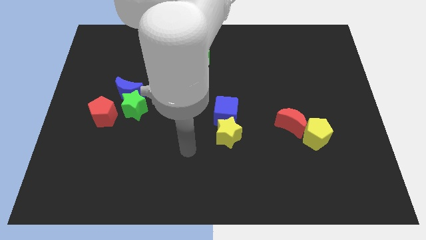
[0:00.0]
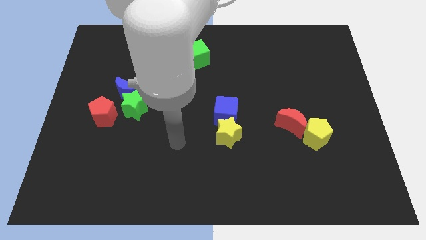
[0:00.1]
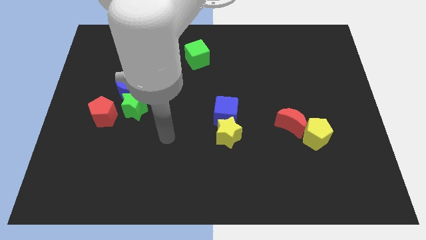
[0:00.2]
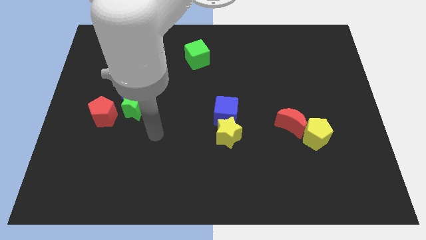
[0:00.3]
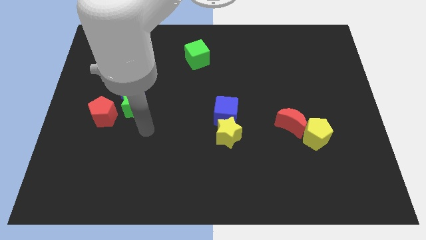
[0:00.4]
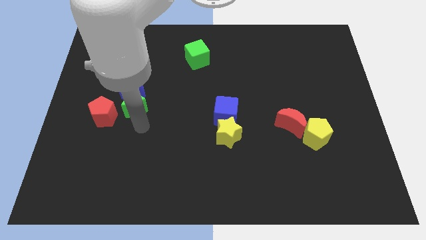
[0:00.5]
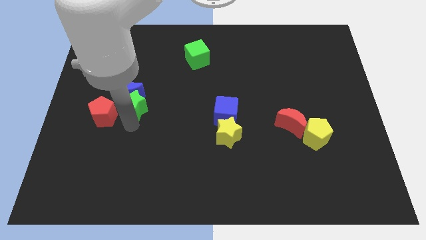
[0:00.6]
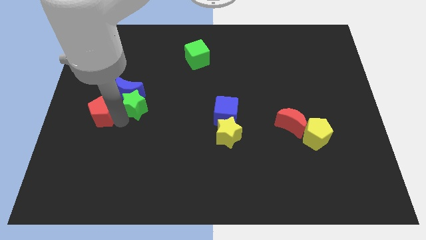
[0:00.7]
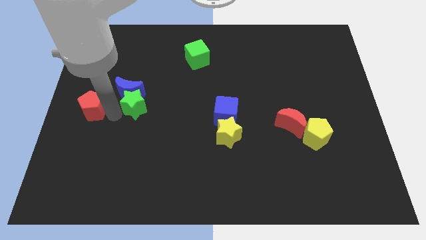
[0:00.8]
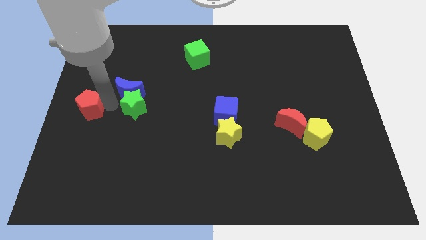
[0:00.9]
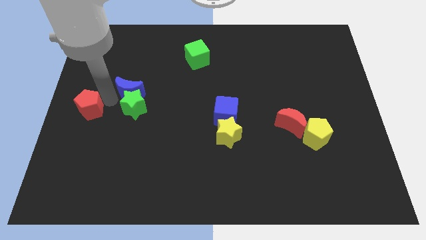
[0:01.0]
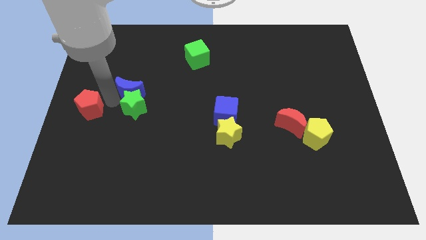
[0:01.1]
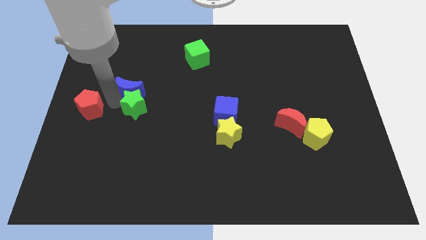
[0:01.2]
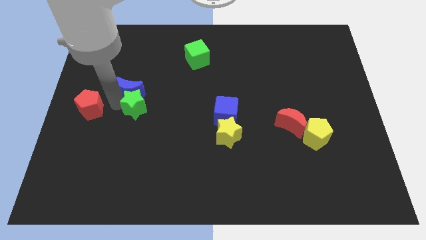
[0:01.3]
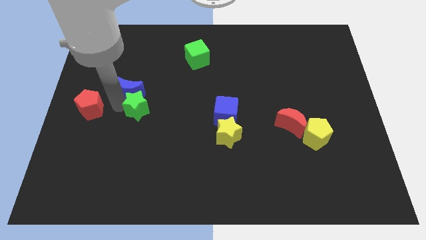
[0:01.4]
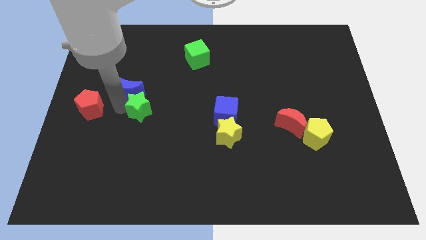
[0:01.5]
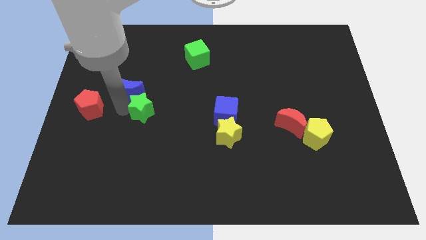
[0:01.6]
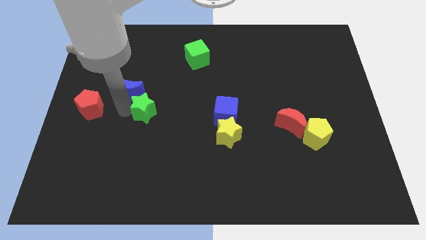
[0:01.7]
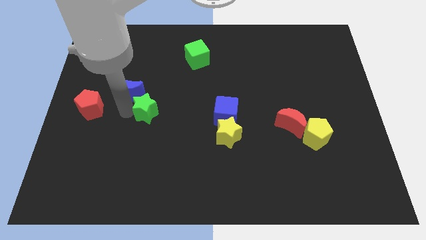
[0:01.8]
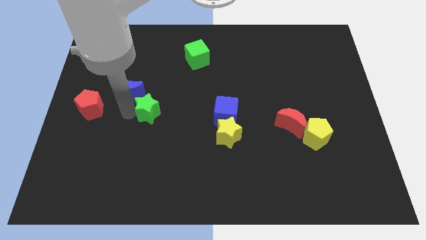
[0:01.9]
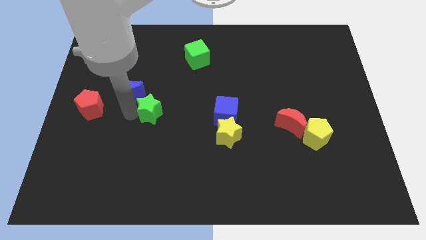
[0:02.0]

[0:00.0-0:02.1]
separate the green star from the blue moon and red pentagon

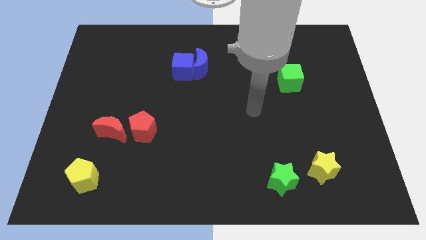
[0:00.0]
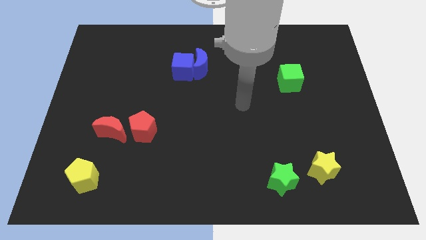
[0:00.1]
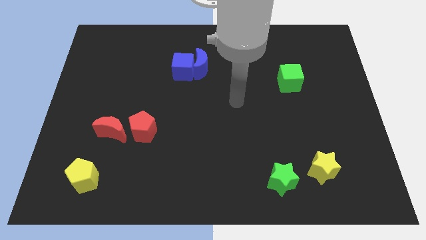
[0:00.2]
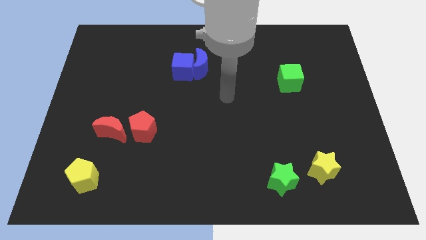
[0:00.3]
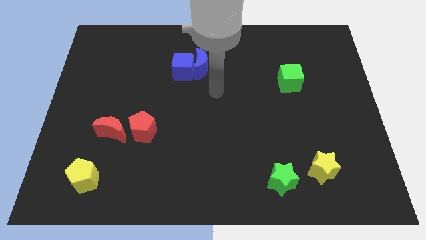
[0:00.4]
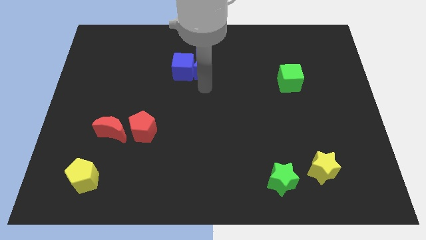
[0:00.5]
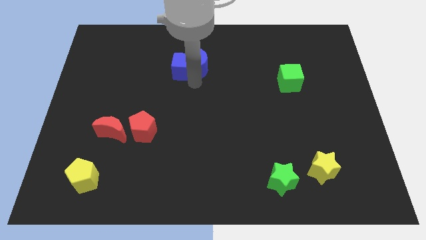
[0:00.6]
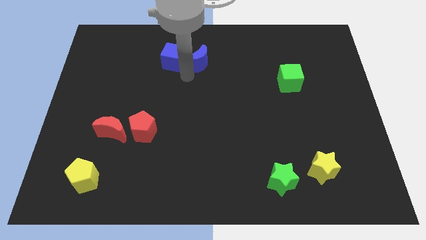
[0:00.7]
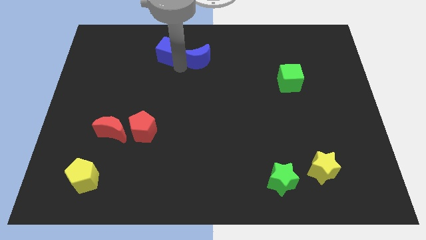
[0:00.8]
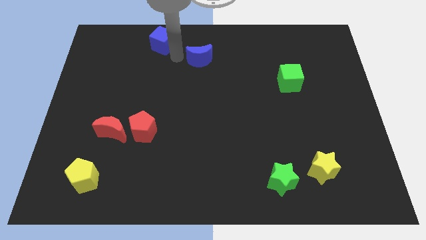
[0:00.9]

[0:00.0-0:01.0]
pull the blue moon apart from the blue cube

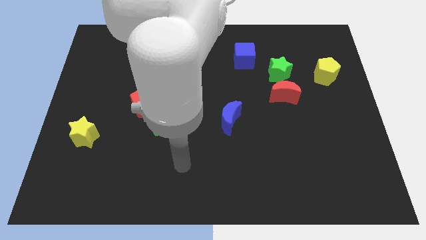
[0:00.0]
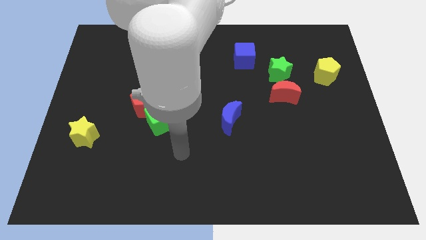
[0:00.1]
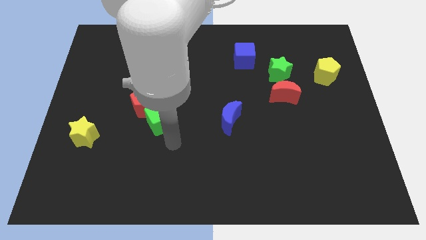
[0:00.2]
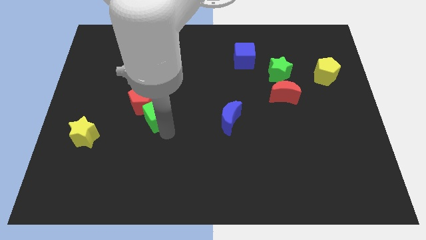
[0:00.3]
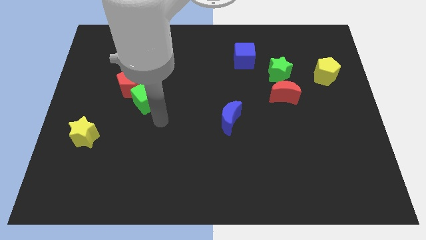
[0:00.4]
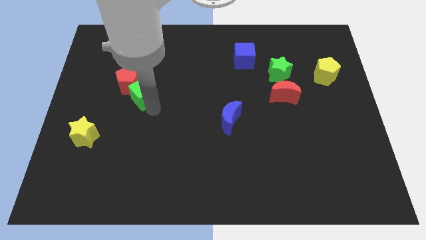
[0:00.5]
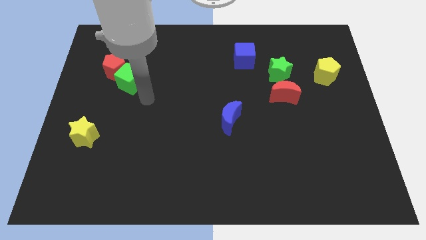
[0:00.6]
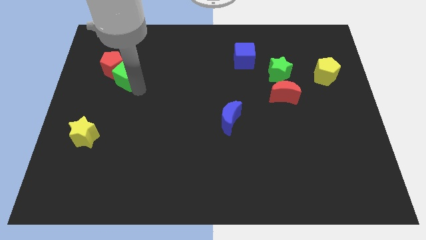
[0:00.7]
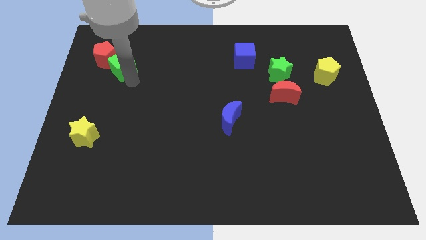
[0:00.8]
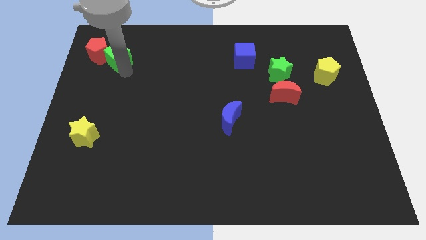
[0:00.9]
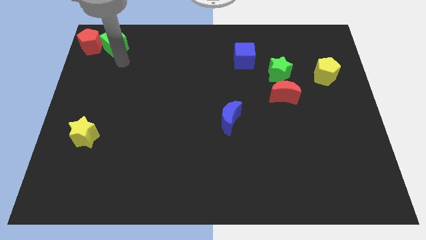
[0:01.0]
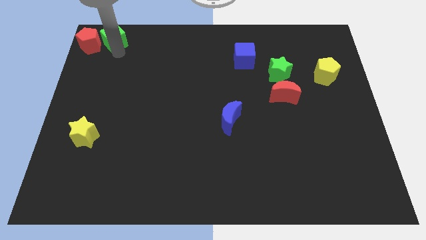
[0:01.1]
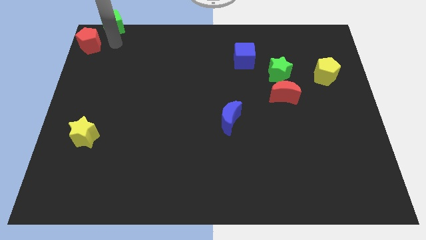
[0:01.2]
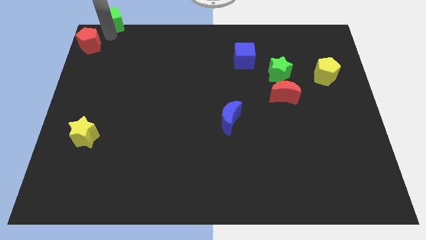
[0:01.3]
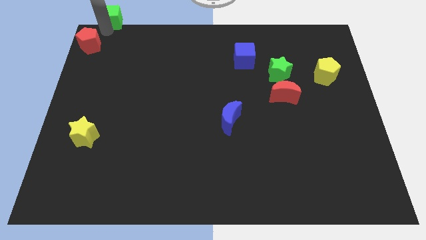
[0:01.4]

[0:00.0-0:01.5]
move the red pentagon away from the green cube

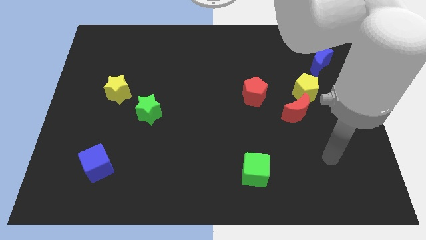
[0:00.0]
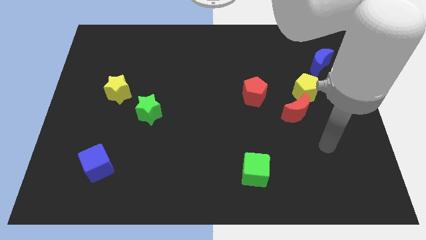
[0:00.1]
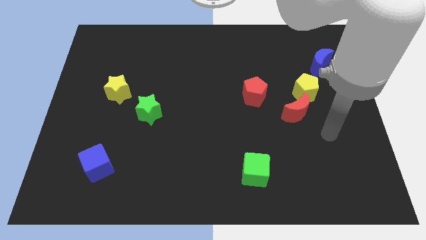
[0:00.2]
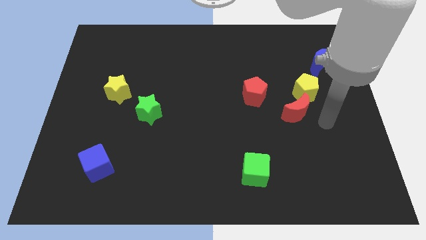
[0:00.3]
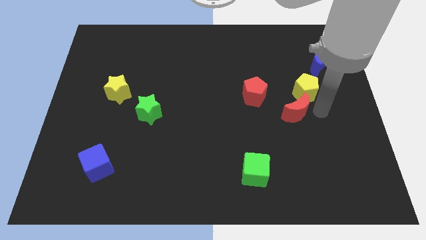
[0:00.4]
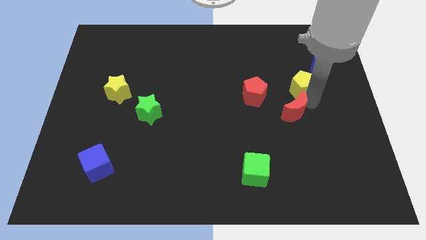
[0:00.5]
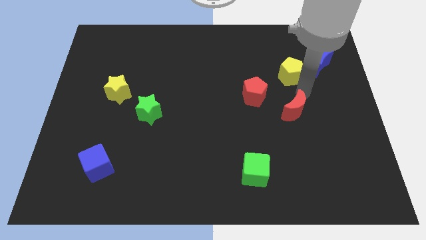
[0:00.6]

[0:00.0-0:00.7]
pull the red moon apart from the yellow pentagon

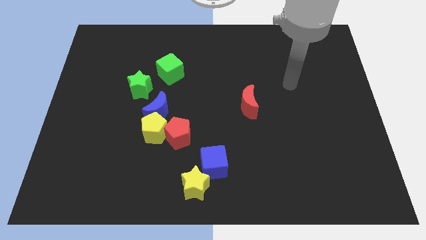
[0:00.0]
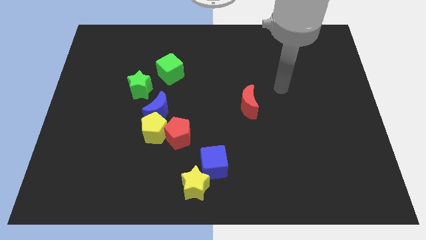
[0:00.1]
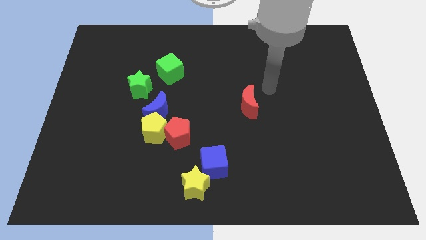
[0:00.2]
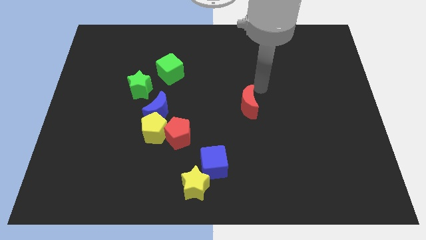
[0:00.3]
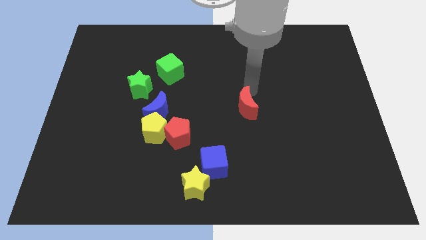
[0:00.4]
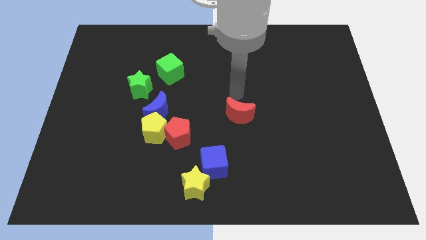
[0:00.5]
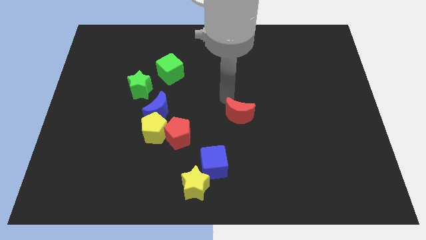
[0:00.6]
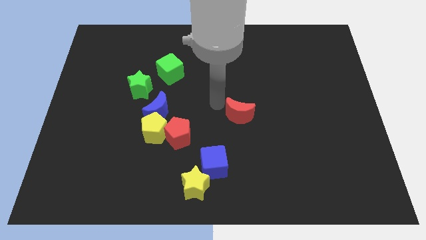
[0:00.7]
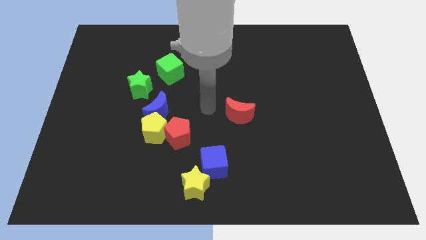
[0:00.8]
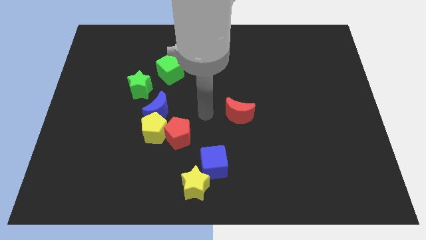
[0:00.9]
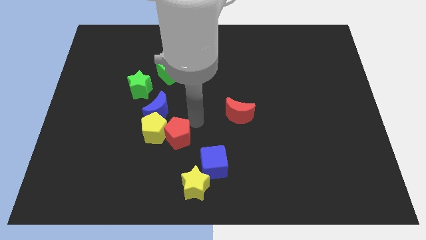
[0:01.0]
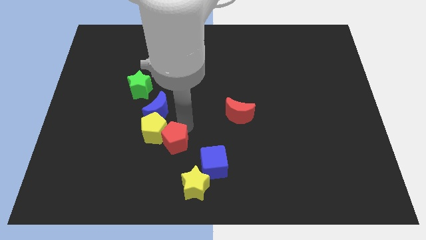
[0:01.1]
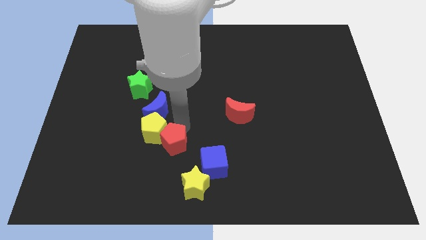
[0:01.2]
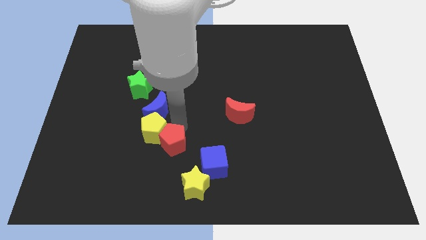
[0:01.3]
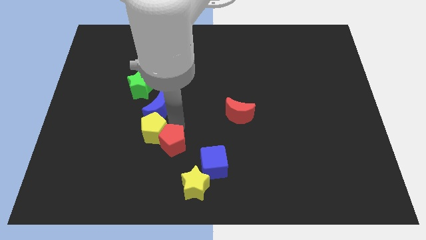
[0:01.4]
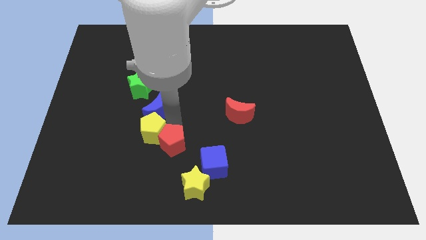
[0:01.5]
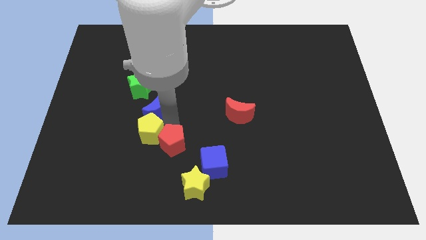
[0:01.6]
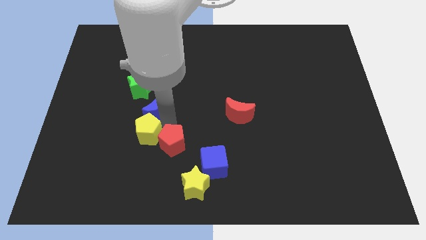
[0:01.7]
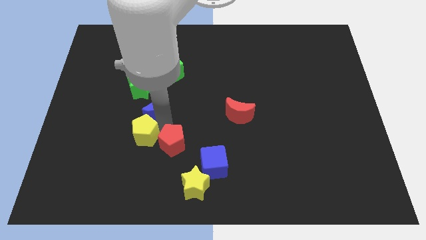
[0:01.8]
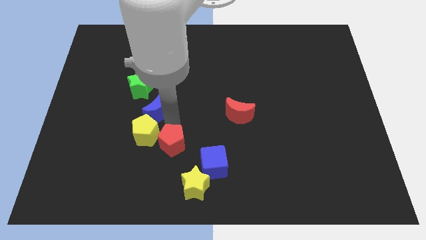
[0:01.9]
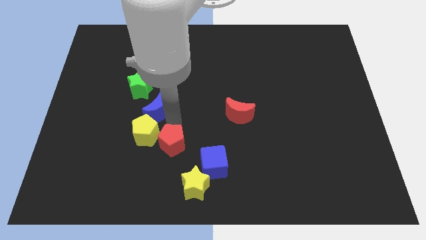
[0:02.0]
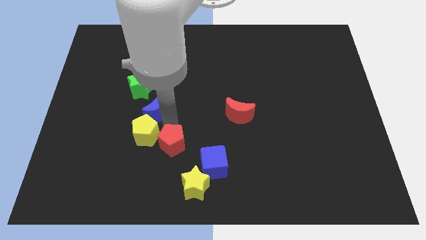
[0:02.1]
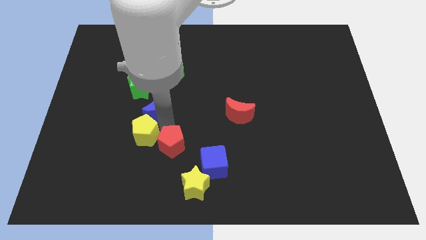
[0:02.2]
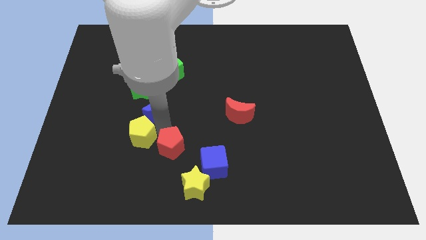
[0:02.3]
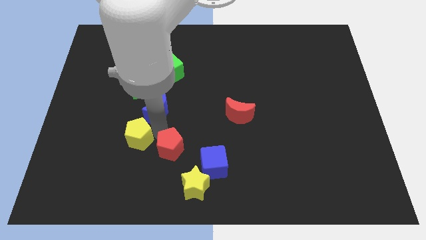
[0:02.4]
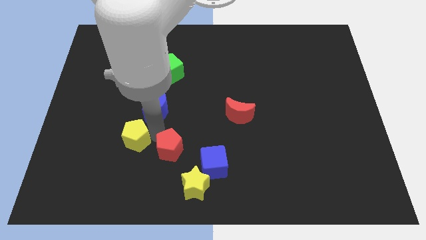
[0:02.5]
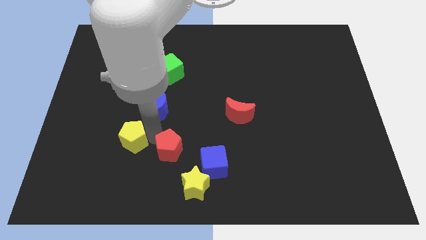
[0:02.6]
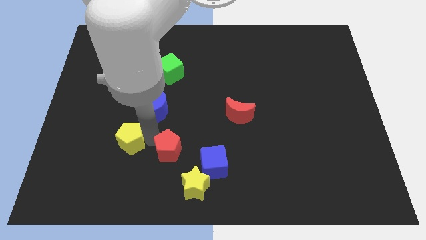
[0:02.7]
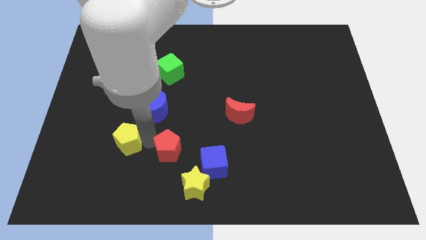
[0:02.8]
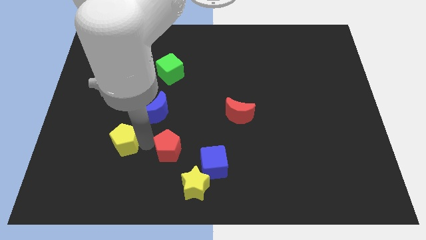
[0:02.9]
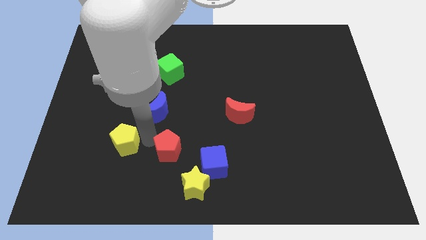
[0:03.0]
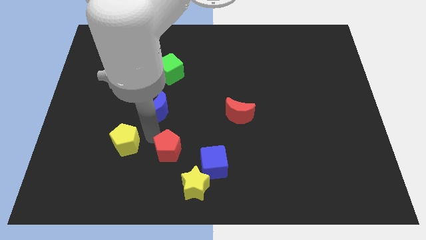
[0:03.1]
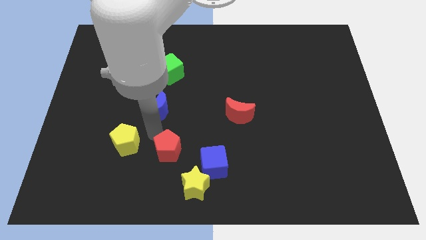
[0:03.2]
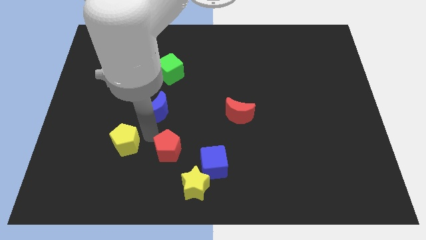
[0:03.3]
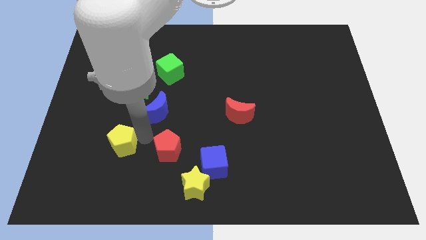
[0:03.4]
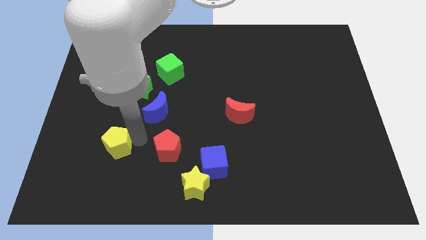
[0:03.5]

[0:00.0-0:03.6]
separate the yellow pentagon from the red pentagon and blue moon

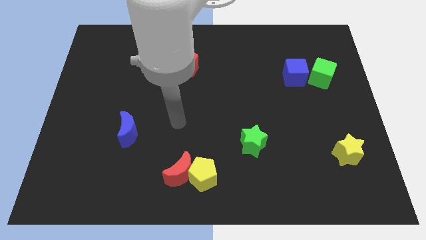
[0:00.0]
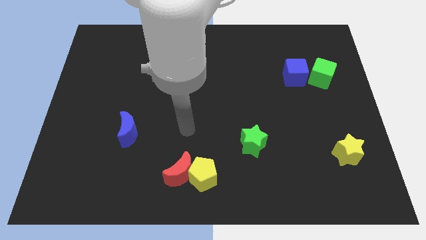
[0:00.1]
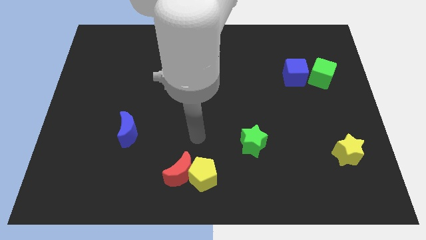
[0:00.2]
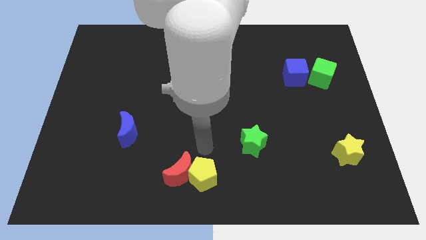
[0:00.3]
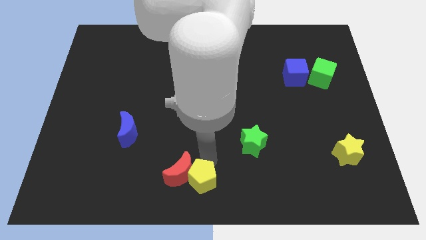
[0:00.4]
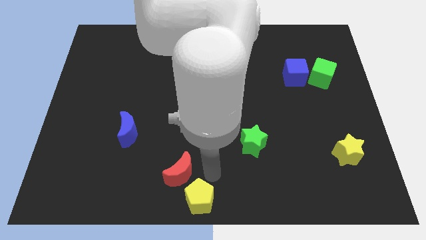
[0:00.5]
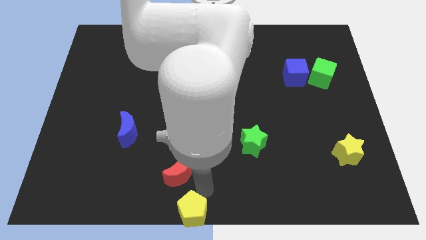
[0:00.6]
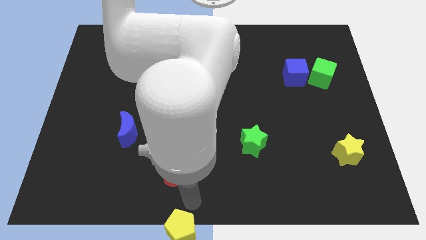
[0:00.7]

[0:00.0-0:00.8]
move the red moon away from the yellow pentagon
